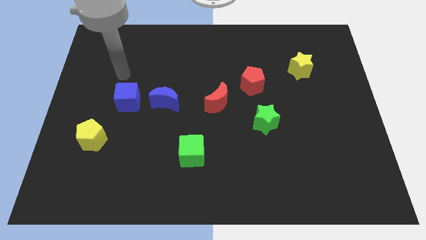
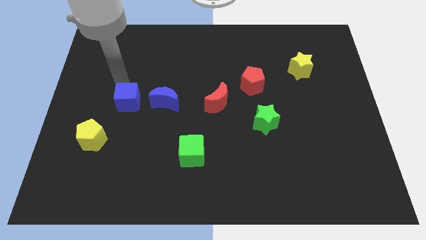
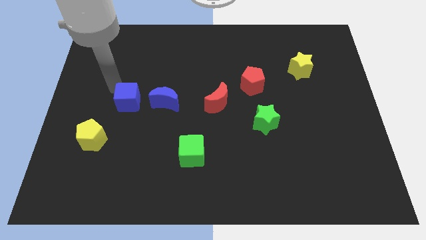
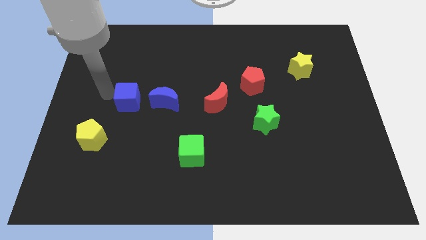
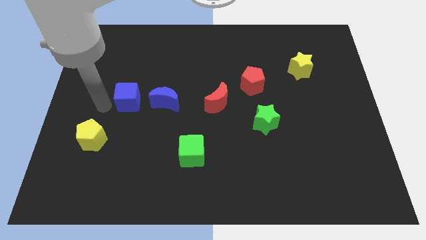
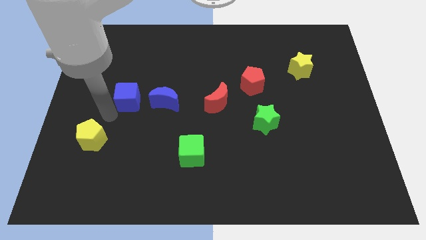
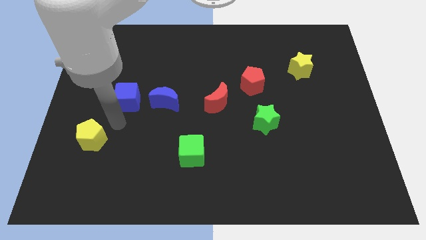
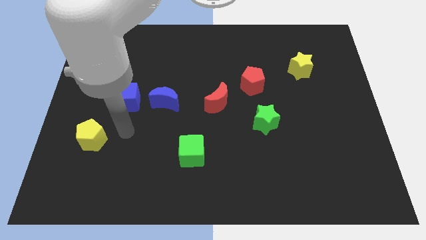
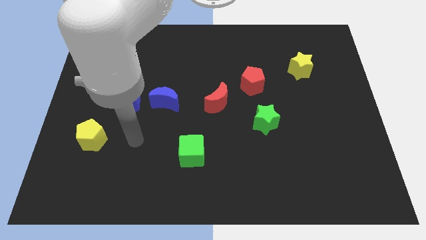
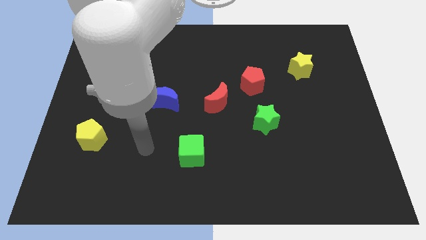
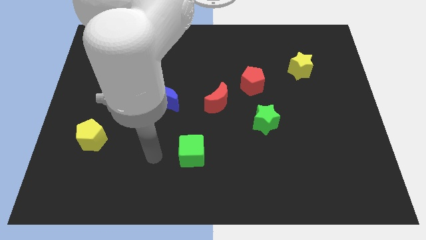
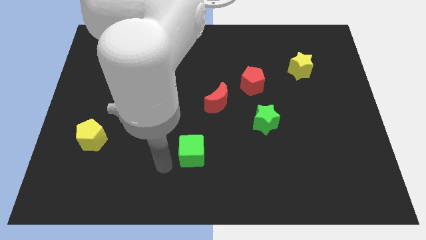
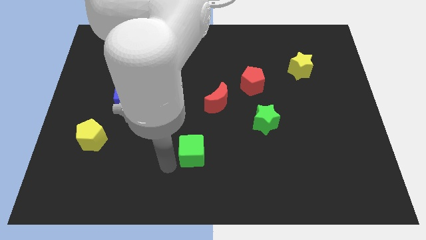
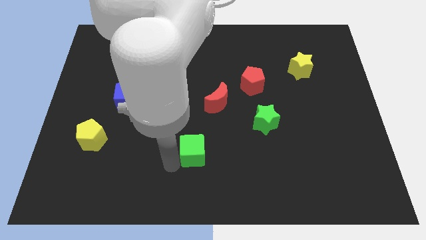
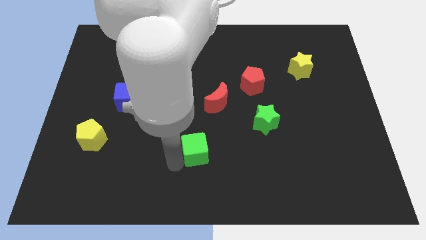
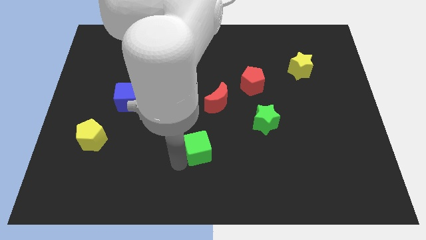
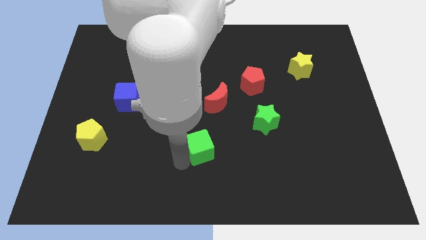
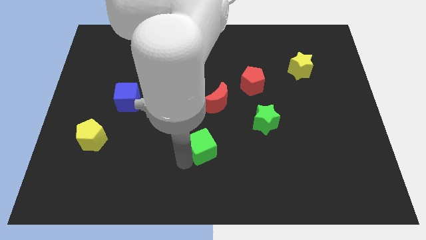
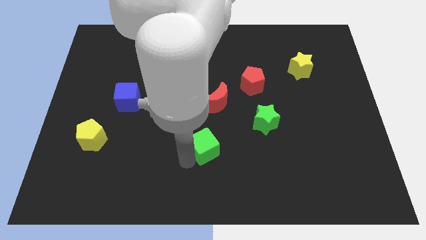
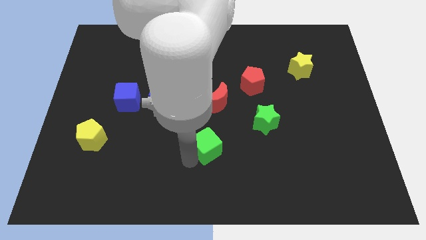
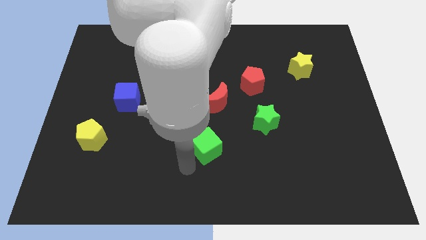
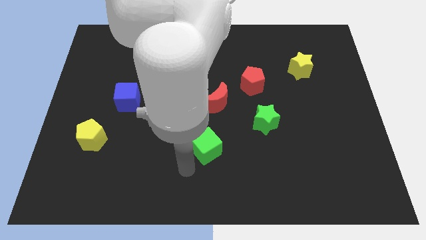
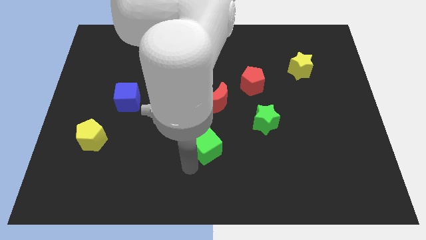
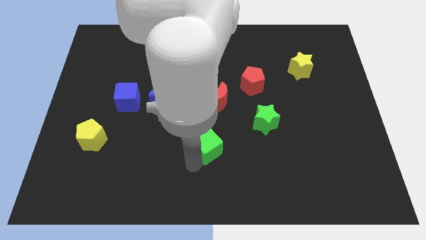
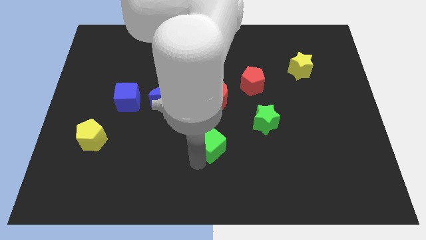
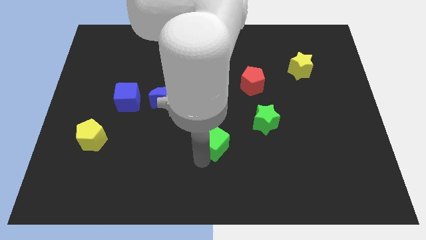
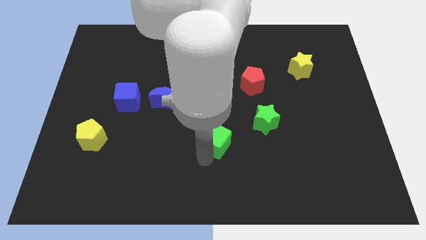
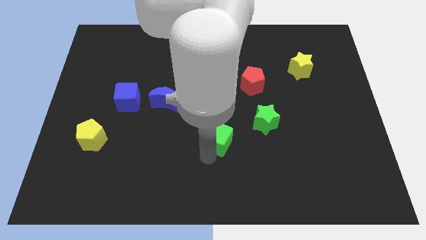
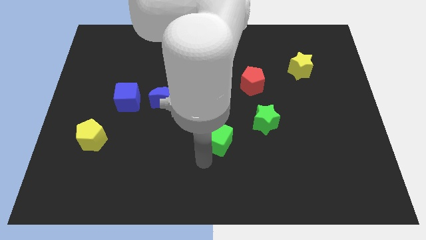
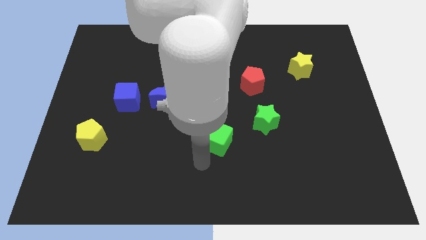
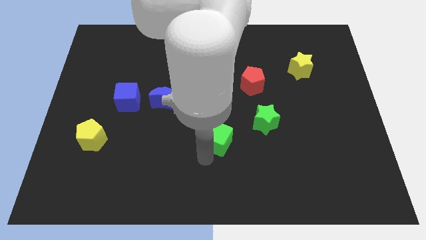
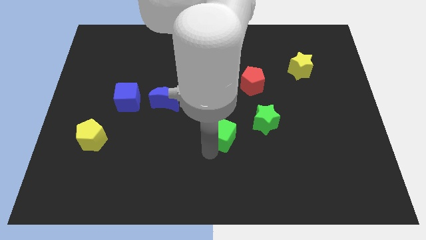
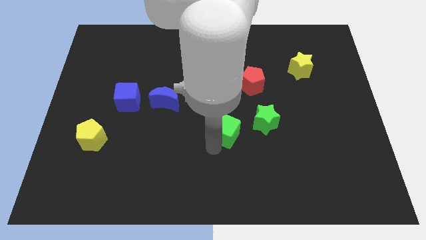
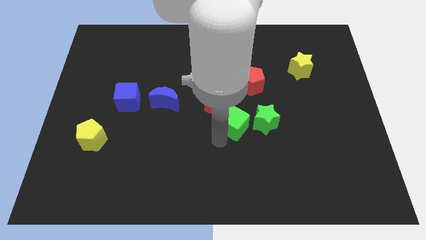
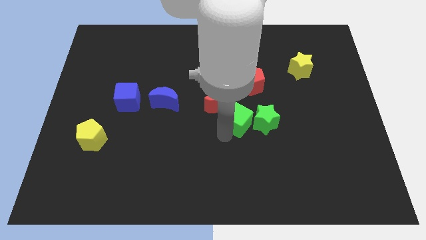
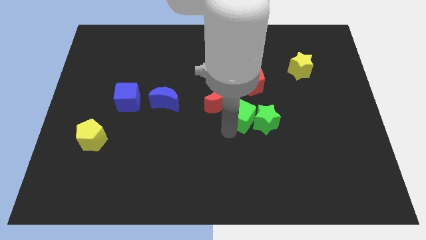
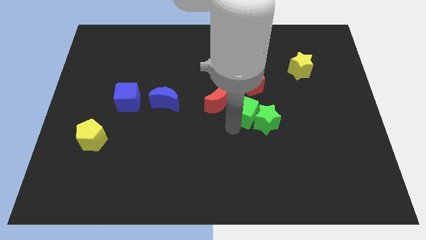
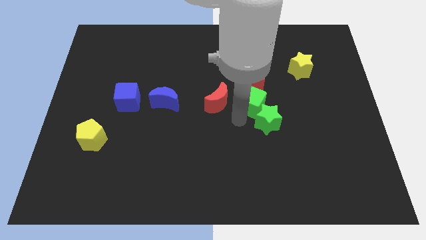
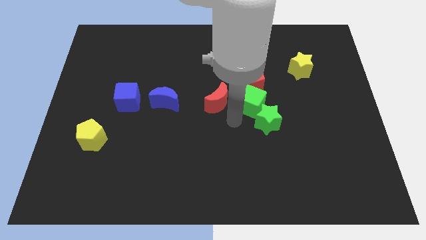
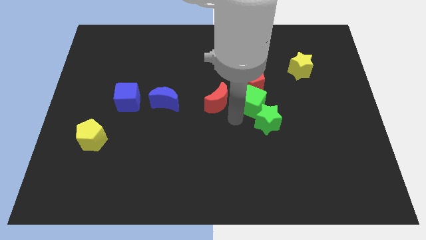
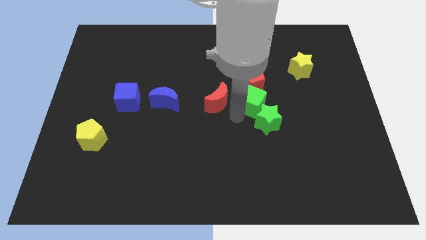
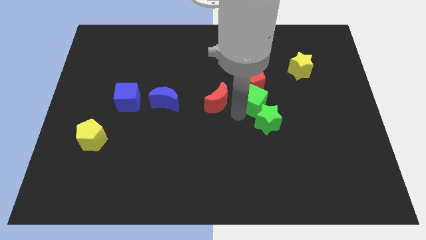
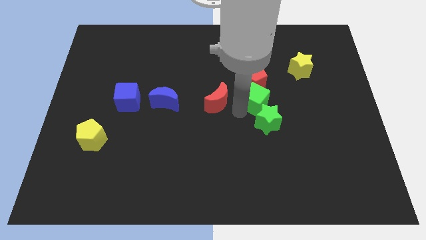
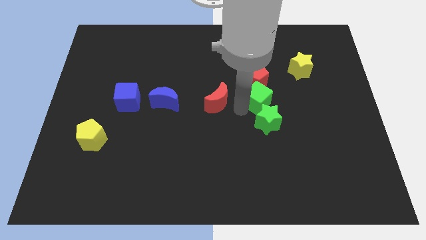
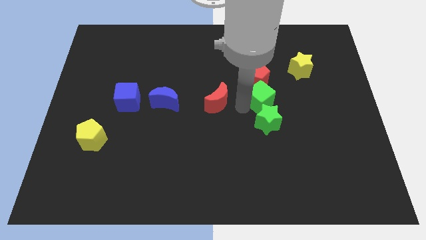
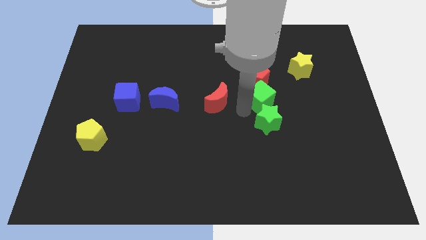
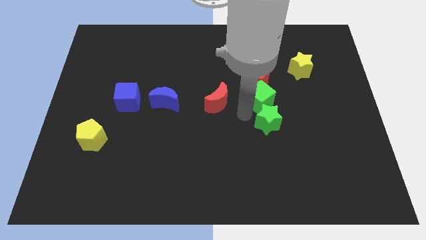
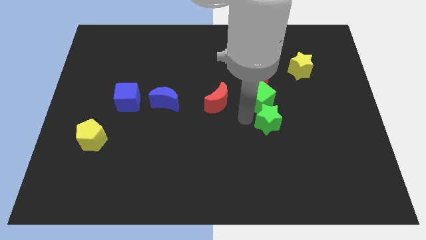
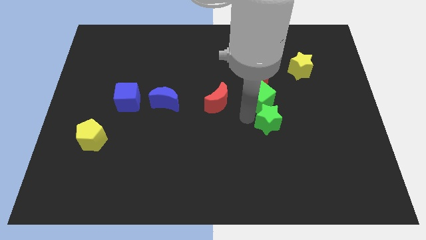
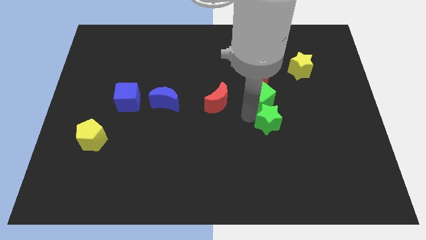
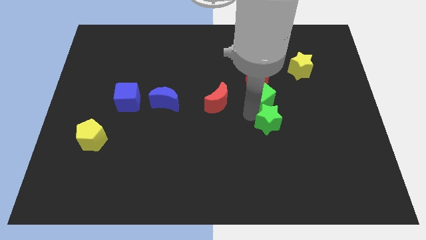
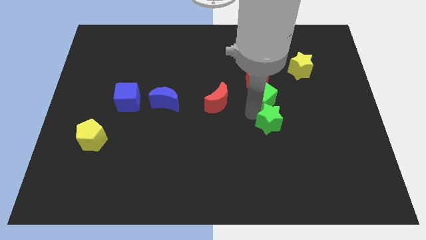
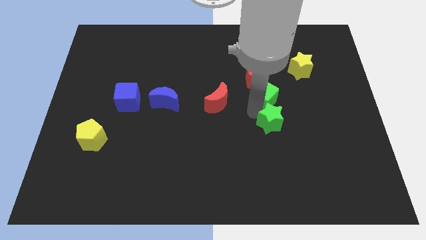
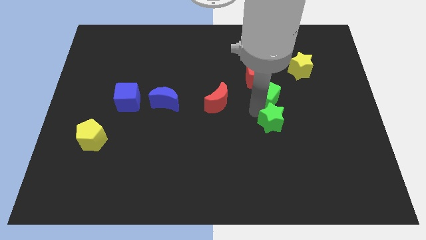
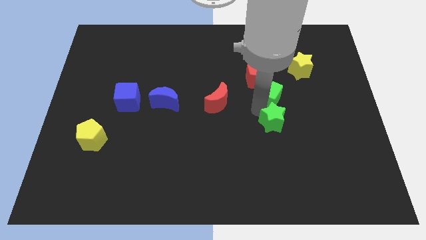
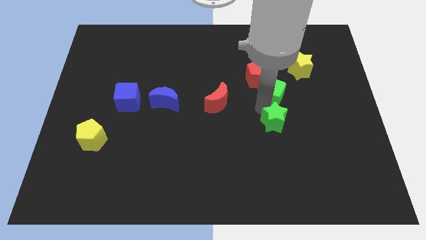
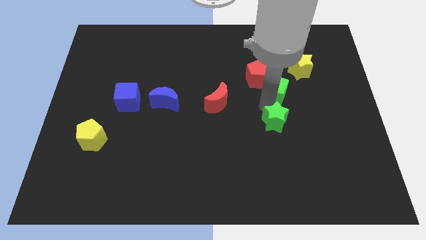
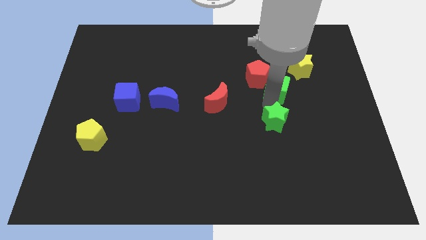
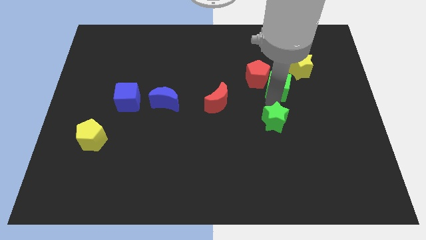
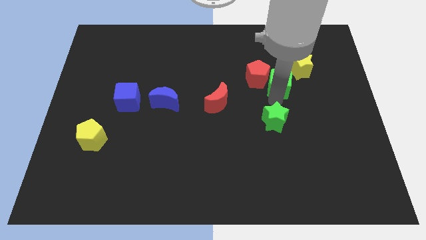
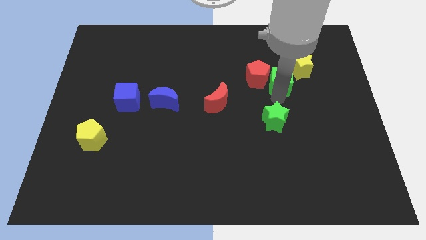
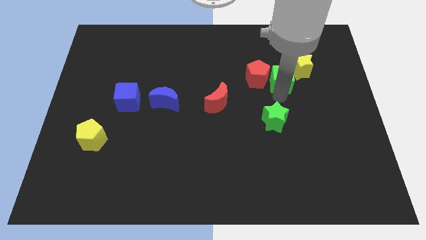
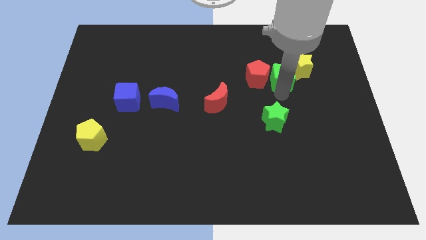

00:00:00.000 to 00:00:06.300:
put the green cube diagonally up and to the right of the red pentagon

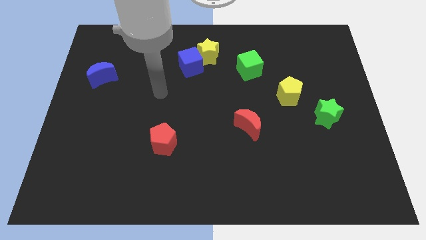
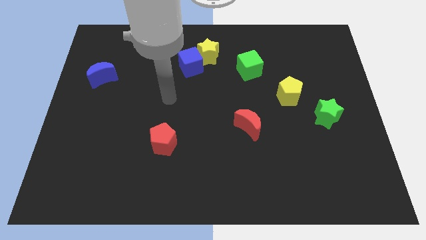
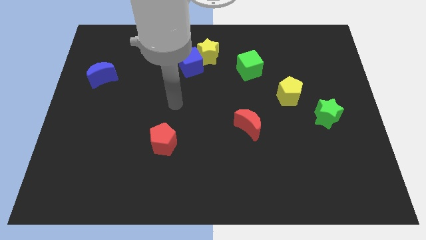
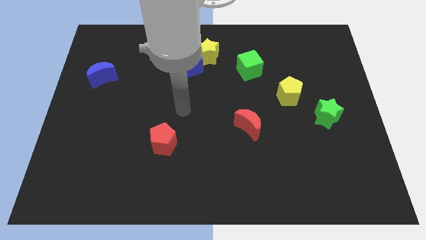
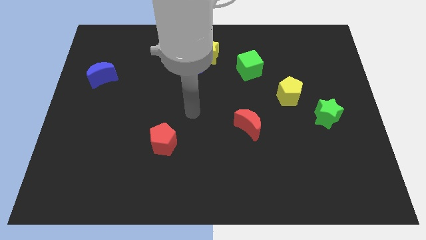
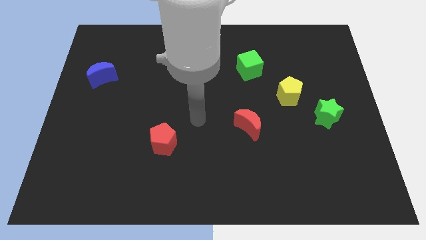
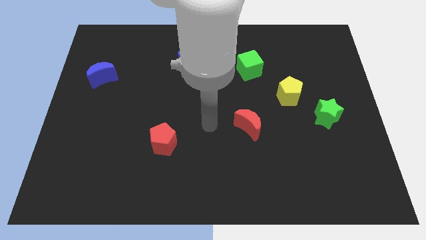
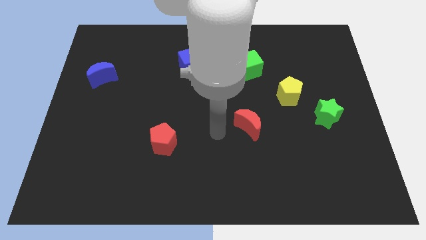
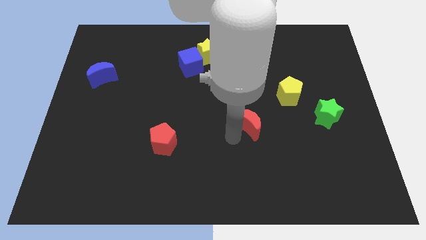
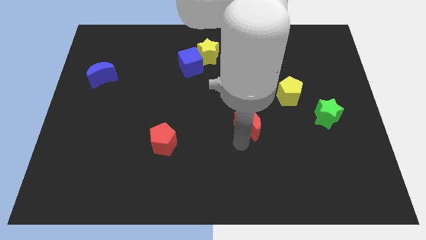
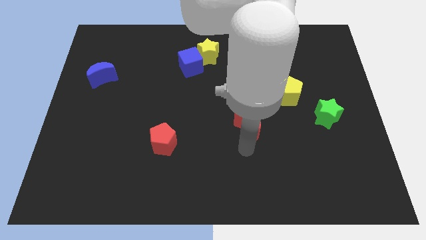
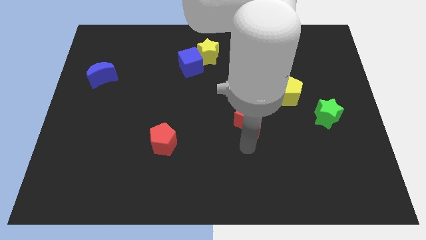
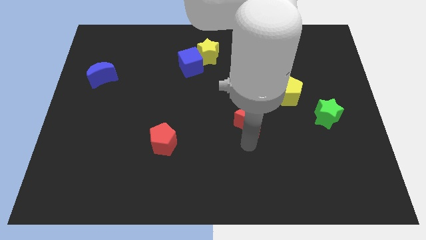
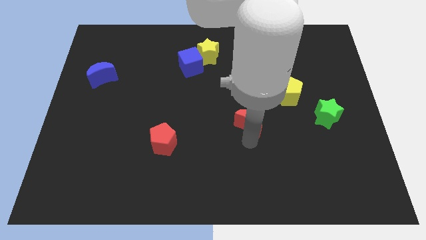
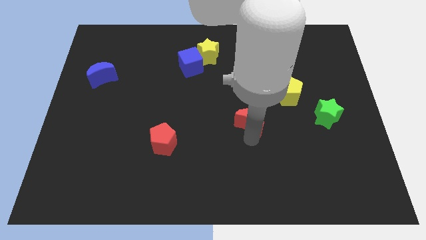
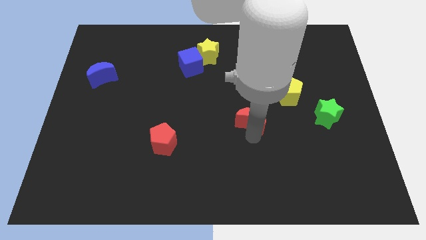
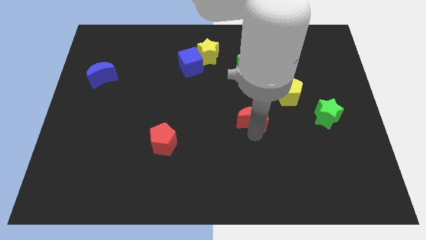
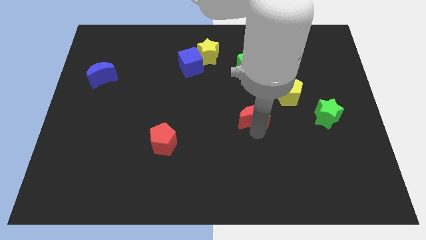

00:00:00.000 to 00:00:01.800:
push the red moon to the bottom side of the green cube
